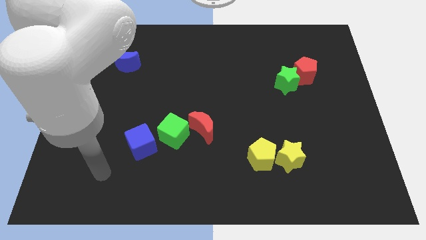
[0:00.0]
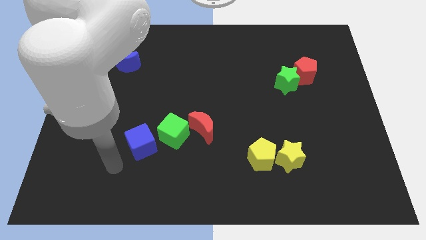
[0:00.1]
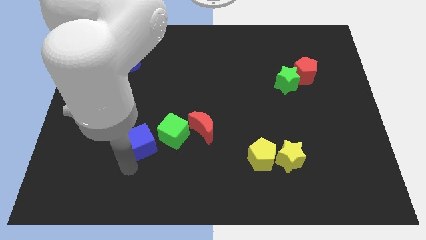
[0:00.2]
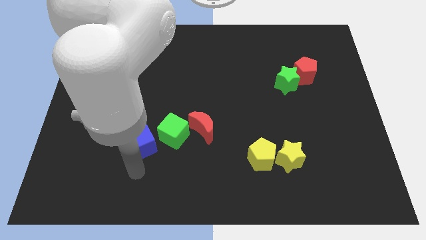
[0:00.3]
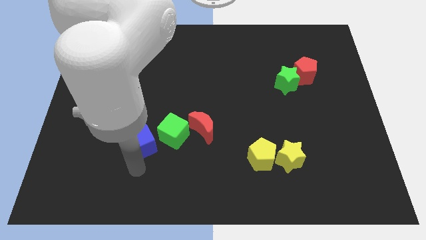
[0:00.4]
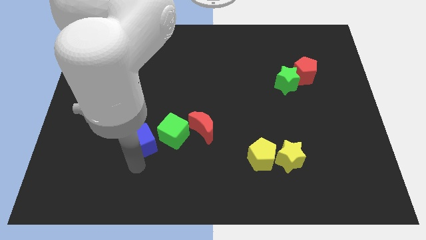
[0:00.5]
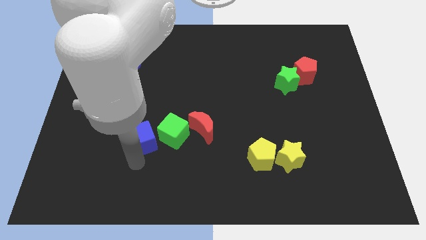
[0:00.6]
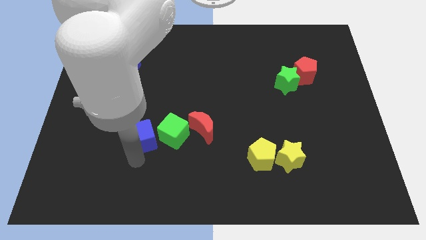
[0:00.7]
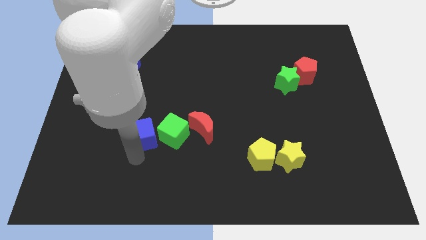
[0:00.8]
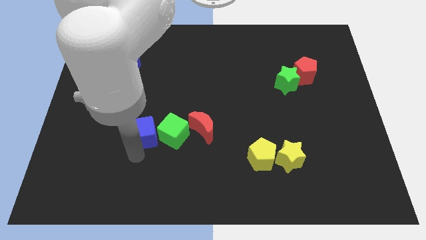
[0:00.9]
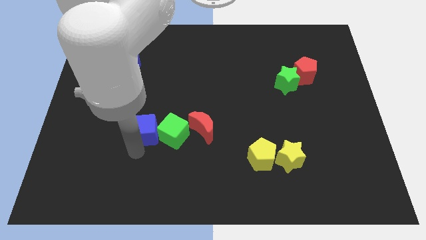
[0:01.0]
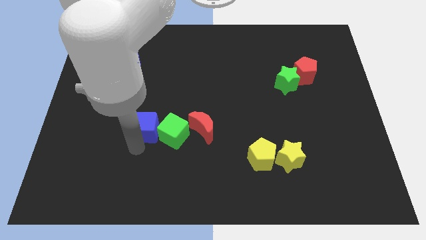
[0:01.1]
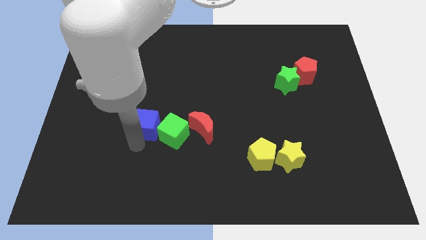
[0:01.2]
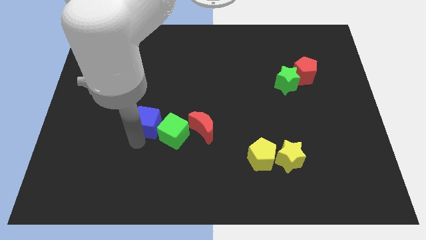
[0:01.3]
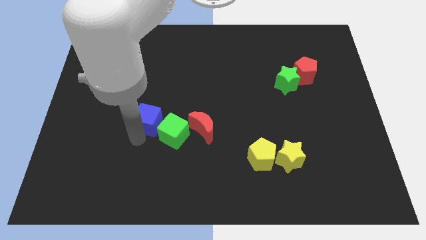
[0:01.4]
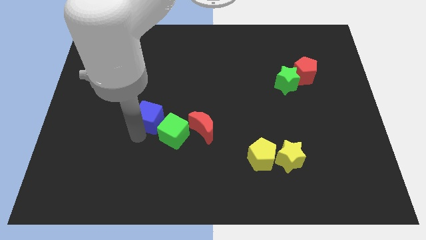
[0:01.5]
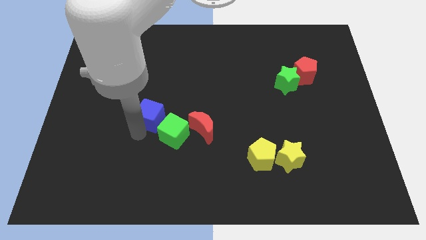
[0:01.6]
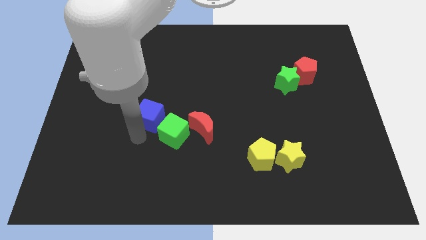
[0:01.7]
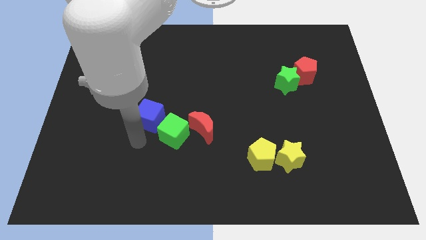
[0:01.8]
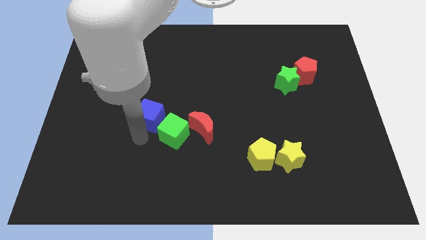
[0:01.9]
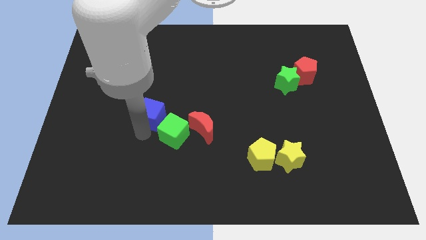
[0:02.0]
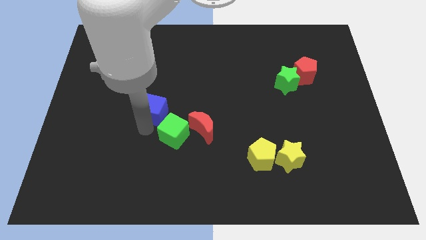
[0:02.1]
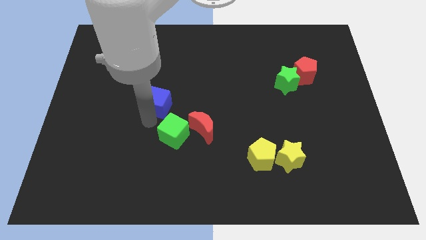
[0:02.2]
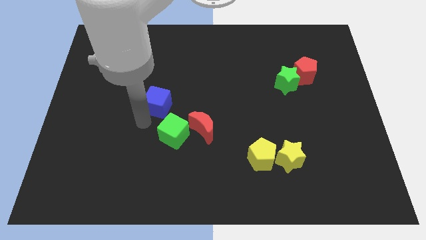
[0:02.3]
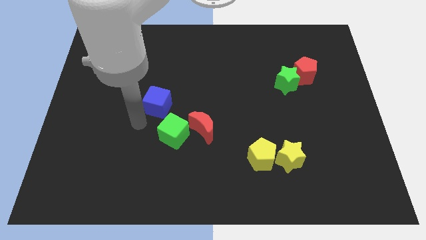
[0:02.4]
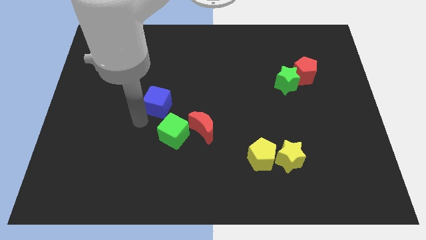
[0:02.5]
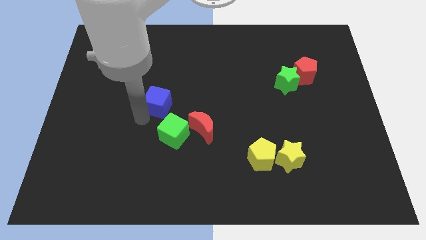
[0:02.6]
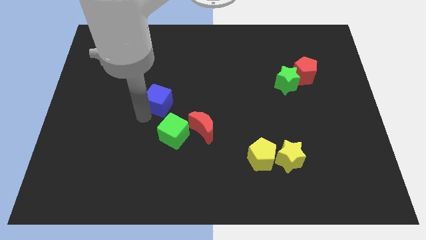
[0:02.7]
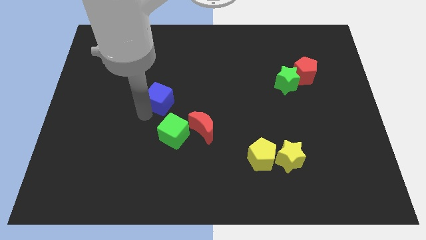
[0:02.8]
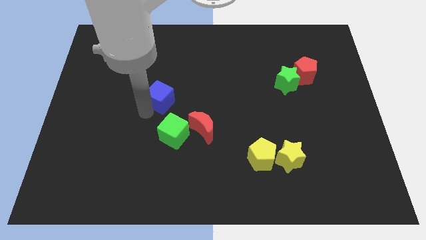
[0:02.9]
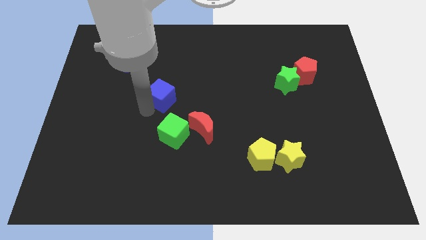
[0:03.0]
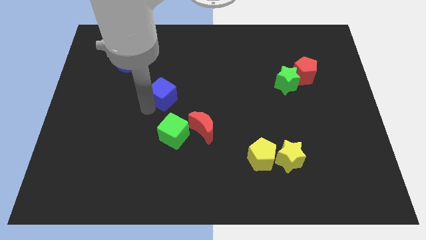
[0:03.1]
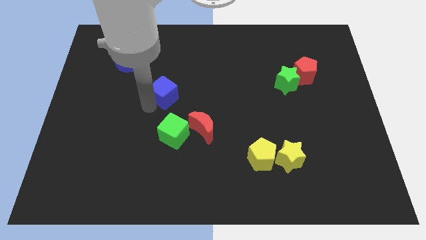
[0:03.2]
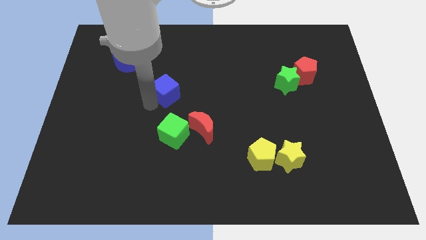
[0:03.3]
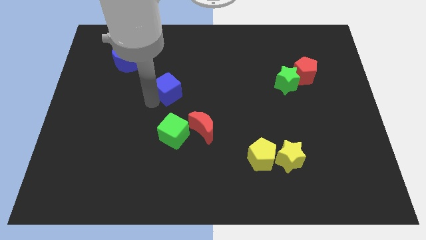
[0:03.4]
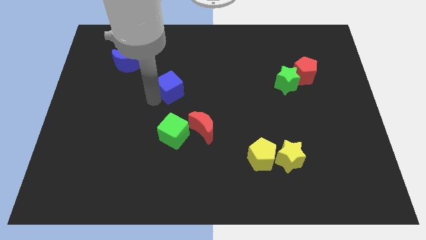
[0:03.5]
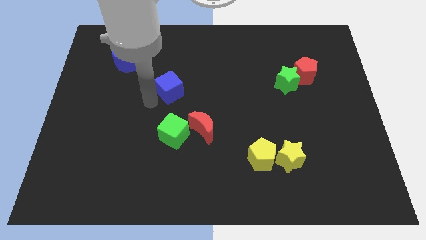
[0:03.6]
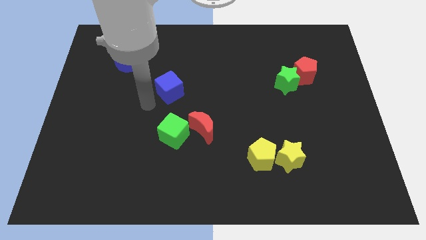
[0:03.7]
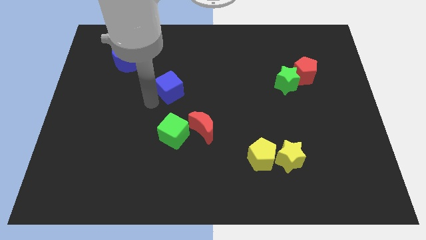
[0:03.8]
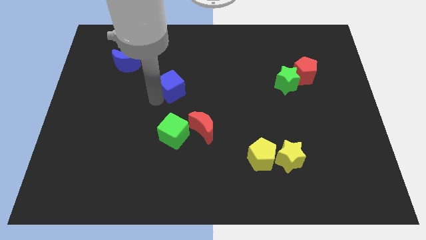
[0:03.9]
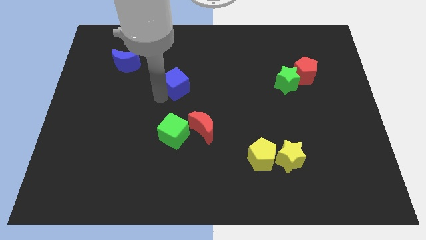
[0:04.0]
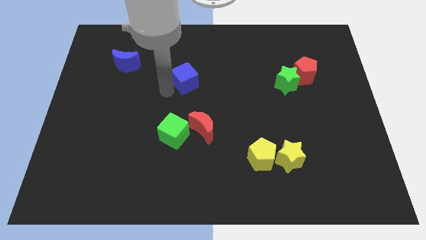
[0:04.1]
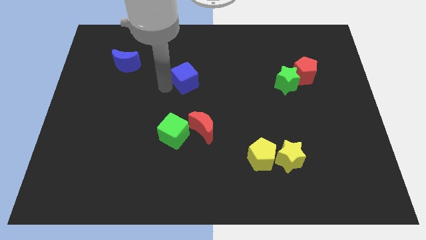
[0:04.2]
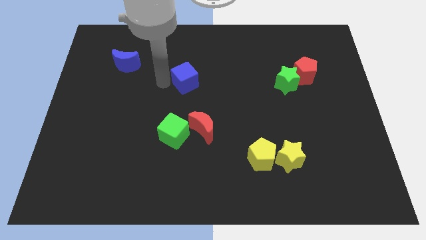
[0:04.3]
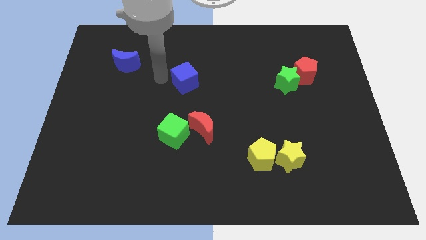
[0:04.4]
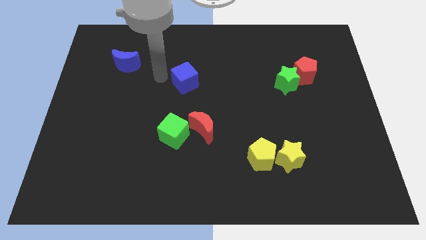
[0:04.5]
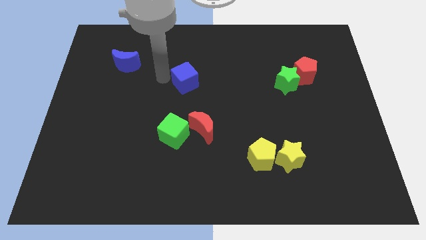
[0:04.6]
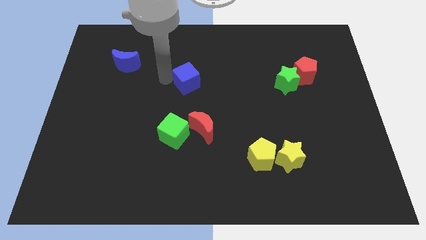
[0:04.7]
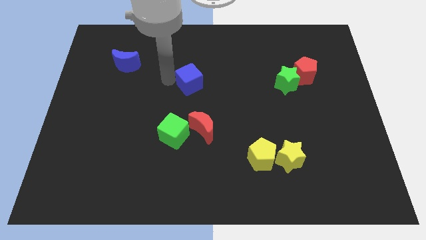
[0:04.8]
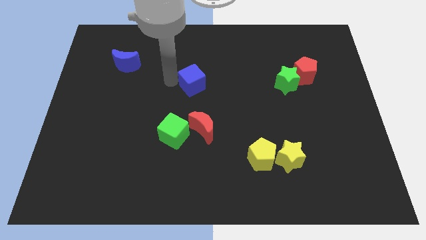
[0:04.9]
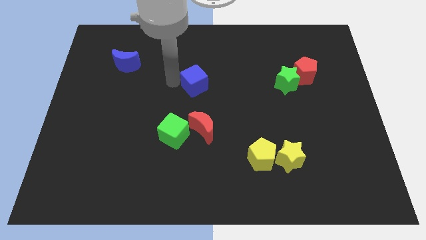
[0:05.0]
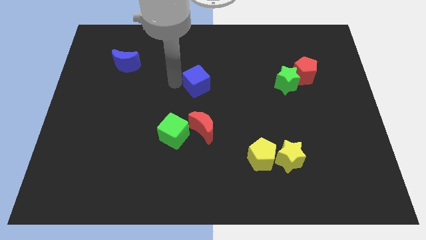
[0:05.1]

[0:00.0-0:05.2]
move the blue cube diagonally upwards and to the right

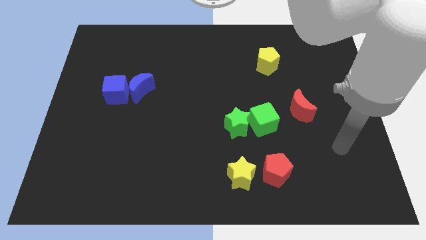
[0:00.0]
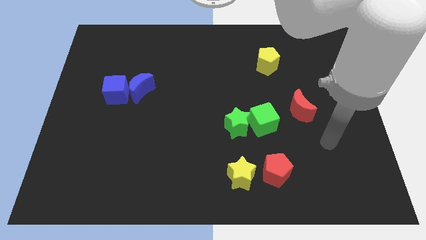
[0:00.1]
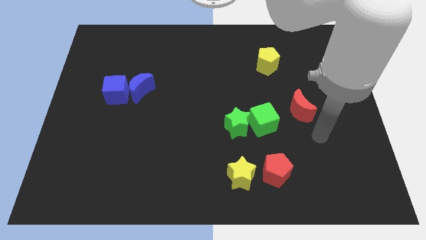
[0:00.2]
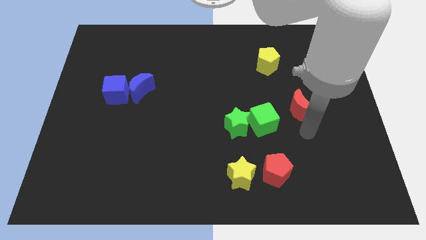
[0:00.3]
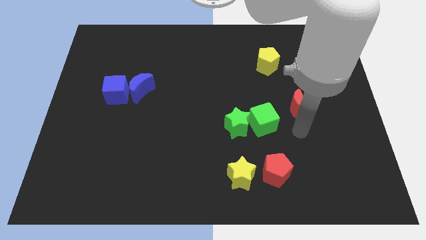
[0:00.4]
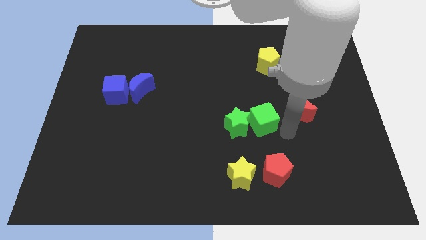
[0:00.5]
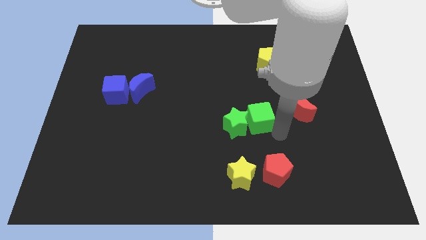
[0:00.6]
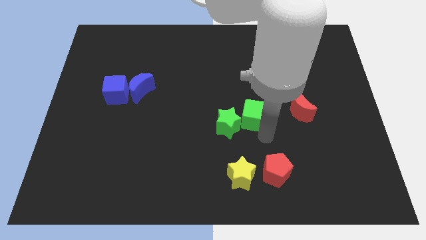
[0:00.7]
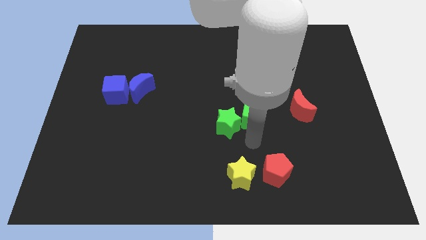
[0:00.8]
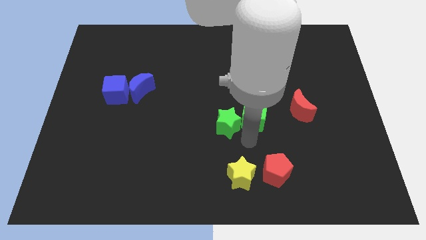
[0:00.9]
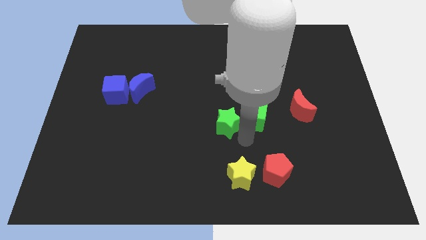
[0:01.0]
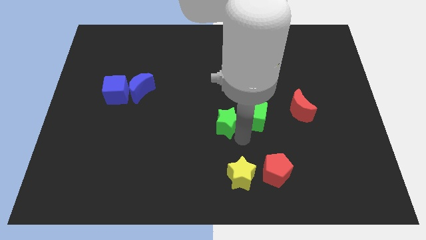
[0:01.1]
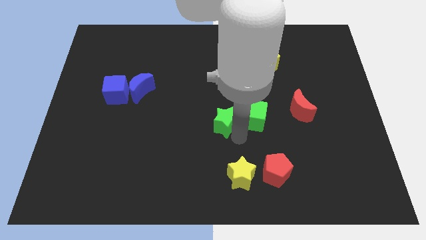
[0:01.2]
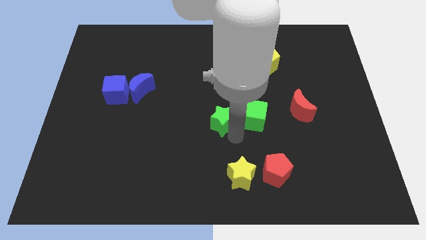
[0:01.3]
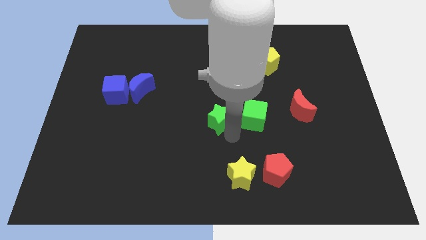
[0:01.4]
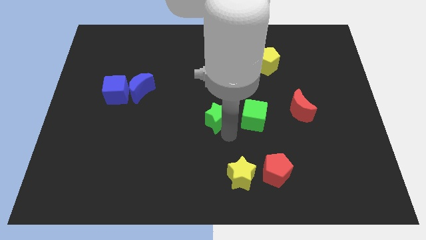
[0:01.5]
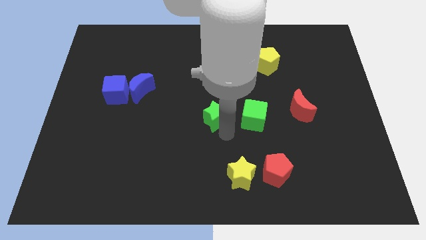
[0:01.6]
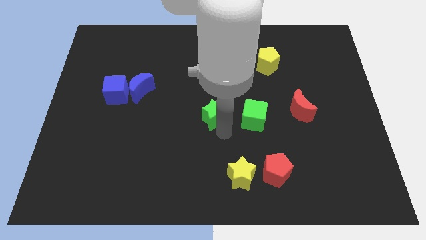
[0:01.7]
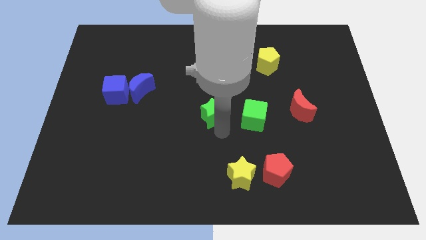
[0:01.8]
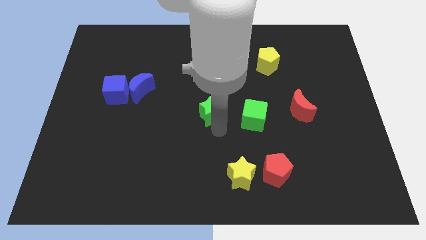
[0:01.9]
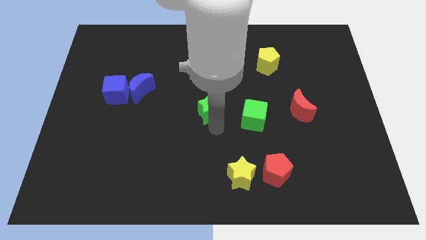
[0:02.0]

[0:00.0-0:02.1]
move the green star diagonally upwards and left a little

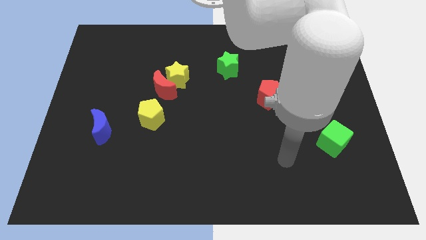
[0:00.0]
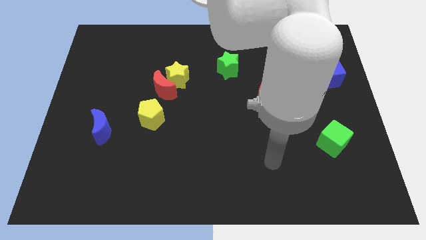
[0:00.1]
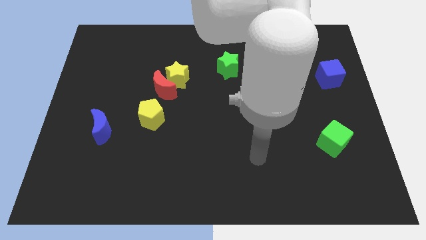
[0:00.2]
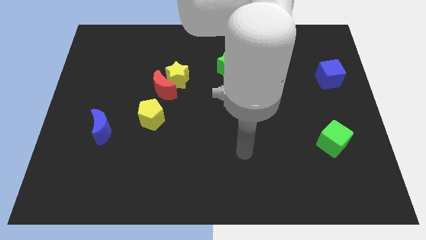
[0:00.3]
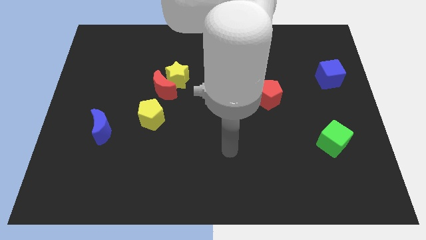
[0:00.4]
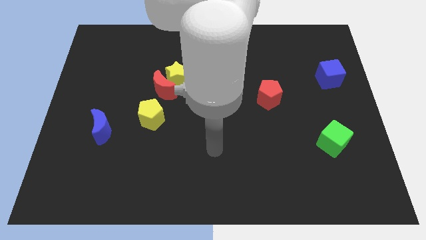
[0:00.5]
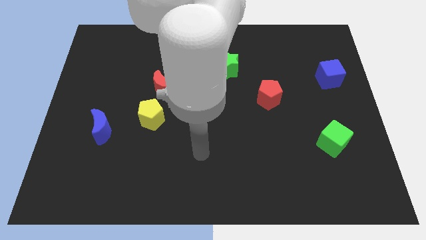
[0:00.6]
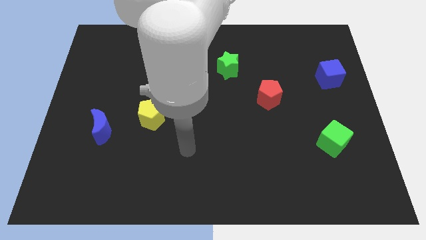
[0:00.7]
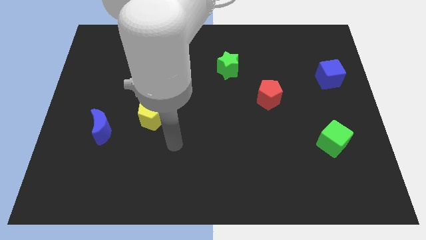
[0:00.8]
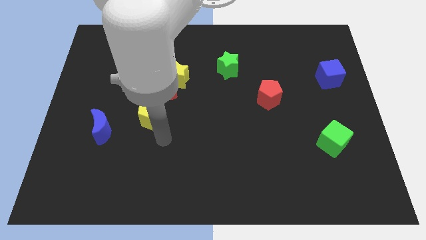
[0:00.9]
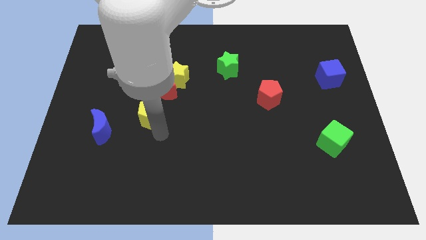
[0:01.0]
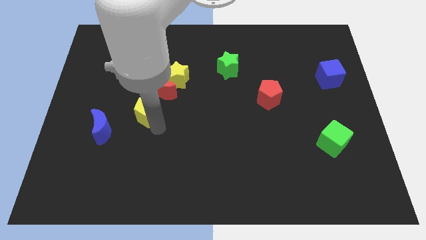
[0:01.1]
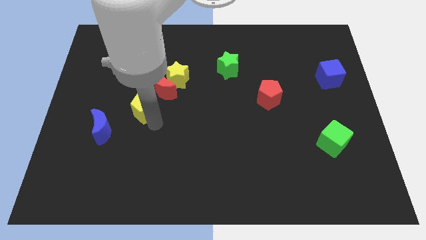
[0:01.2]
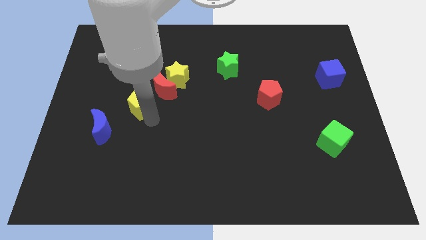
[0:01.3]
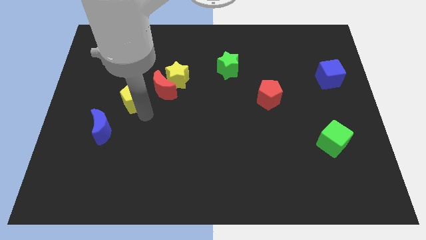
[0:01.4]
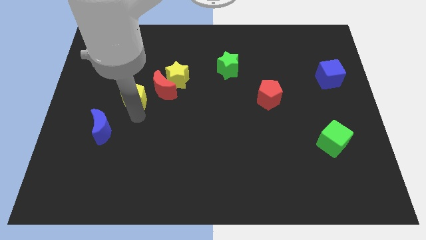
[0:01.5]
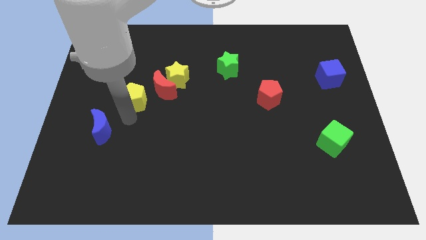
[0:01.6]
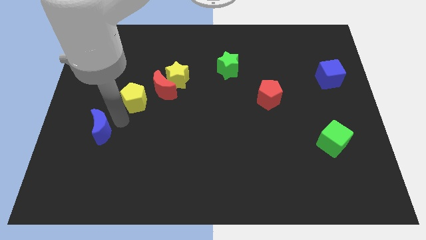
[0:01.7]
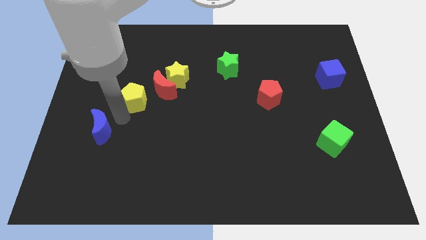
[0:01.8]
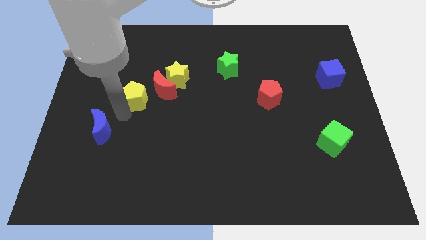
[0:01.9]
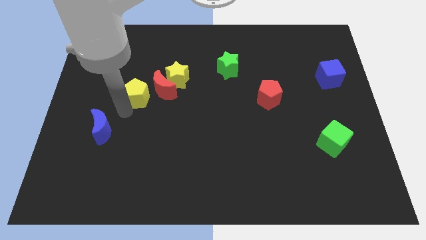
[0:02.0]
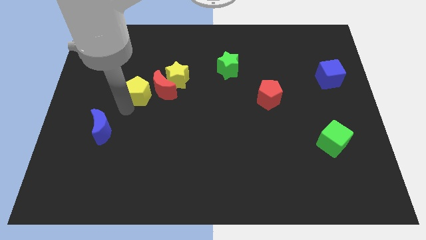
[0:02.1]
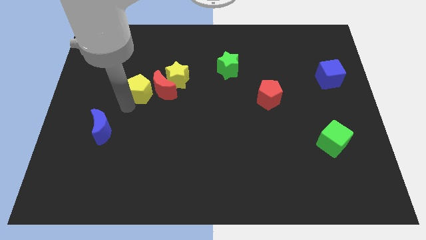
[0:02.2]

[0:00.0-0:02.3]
move the yellow pentagon somewhat up
